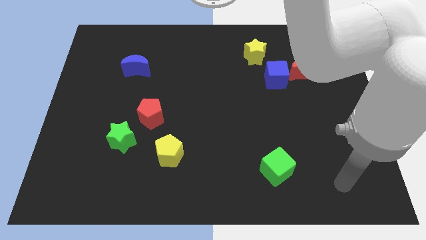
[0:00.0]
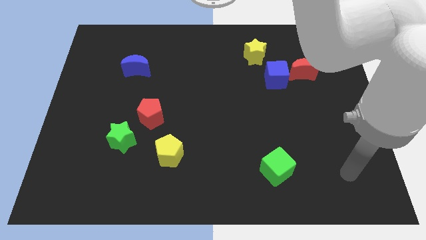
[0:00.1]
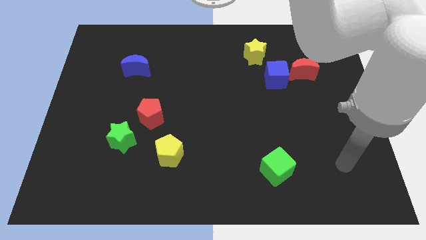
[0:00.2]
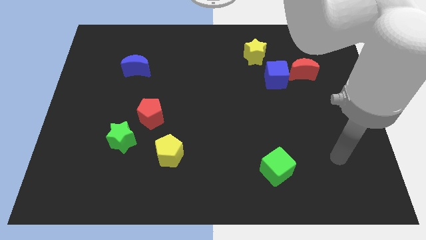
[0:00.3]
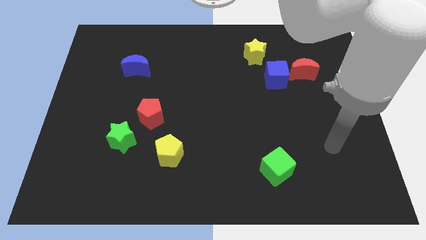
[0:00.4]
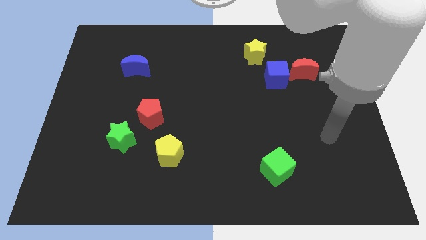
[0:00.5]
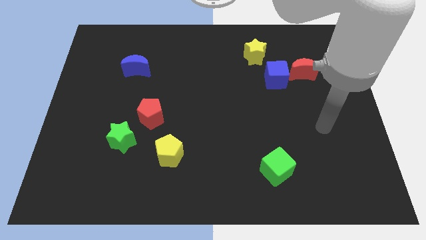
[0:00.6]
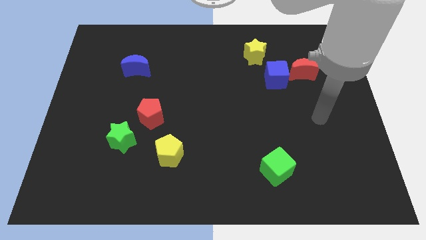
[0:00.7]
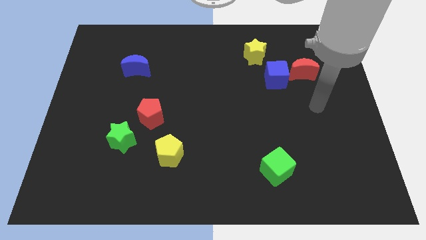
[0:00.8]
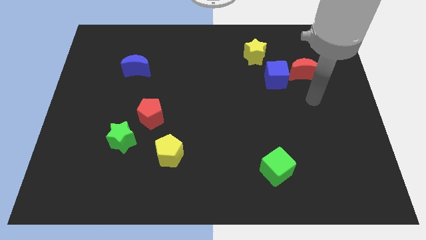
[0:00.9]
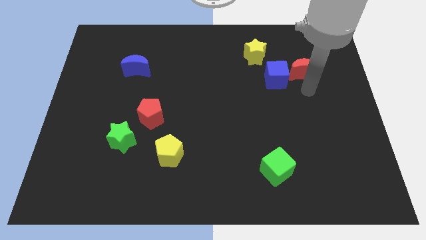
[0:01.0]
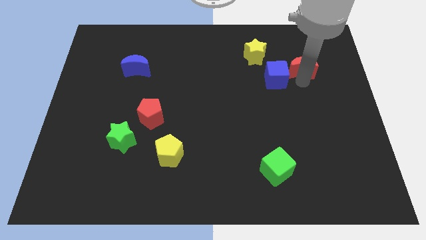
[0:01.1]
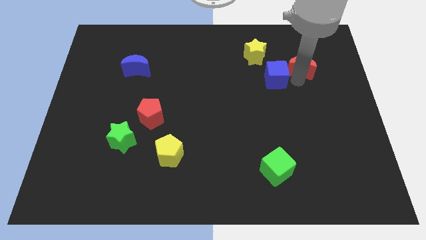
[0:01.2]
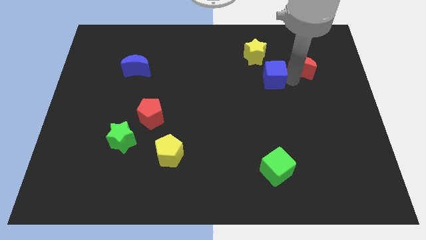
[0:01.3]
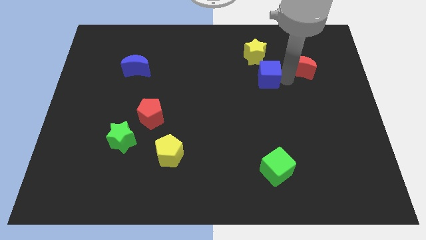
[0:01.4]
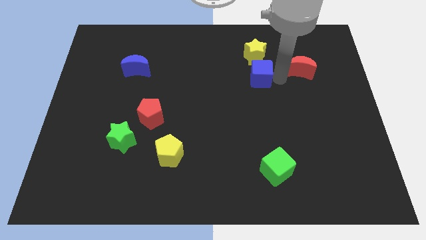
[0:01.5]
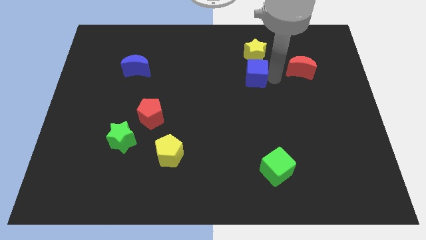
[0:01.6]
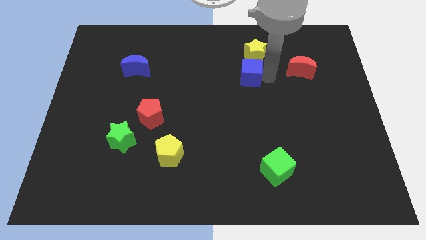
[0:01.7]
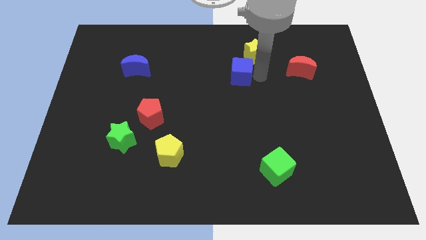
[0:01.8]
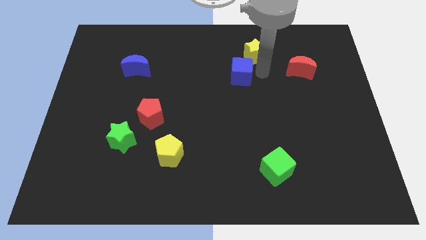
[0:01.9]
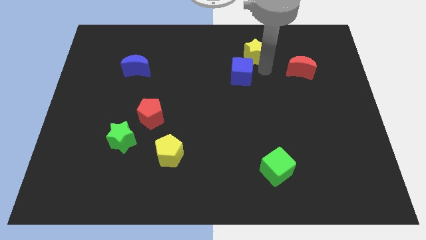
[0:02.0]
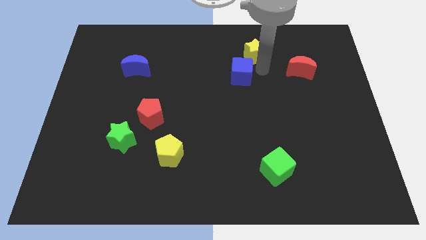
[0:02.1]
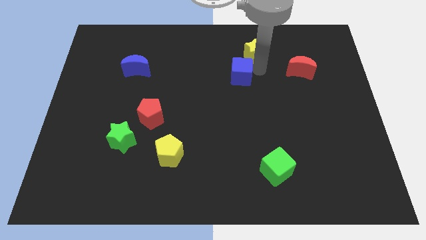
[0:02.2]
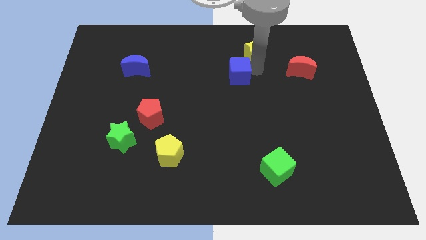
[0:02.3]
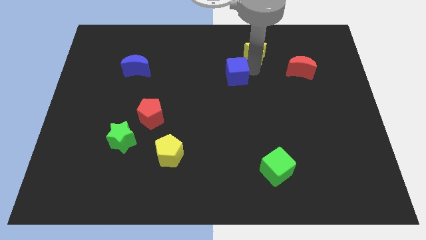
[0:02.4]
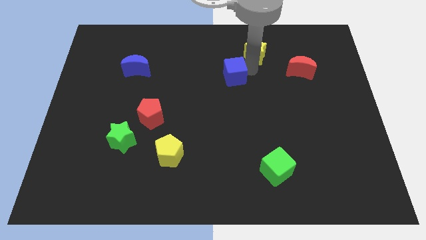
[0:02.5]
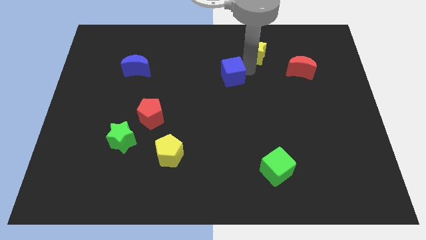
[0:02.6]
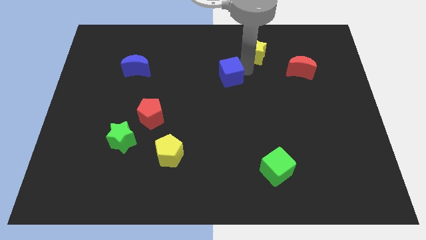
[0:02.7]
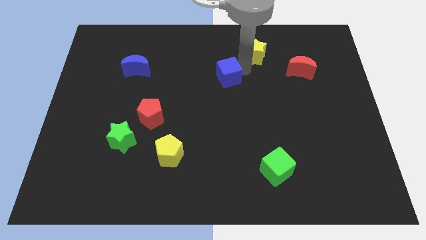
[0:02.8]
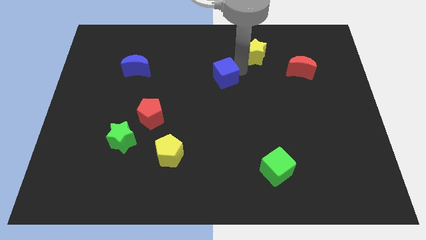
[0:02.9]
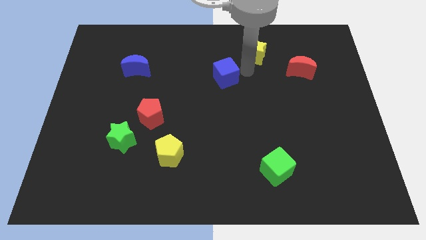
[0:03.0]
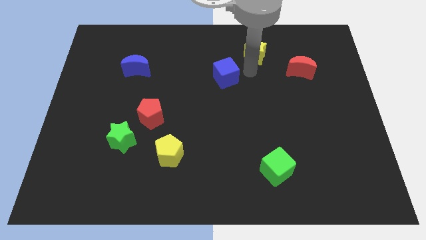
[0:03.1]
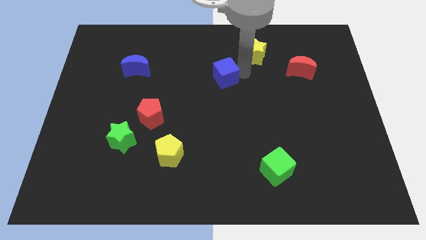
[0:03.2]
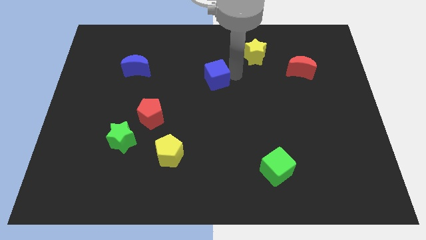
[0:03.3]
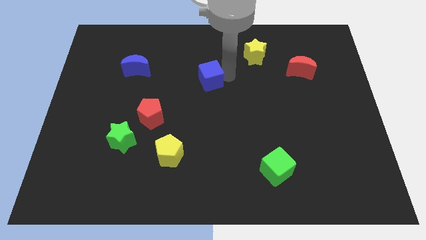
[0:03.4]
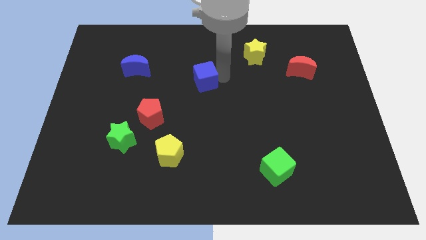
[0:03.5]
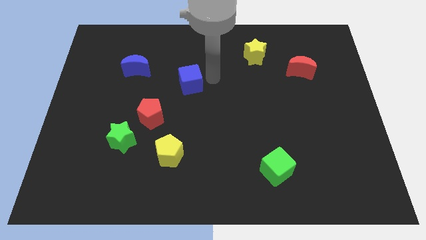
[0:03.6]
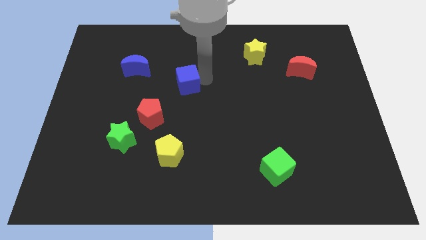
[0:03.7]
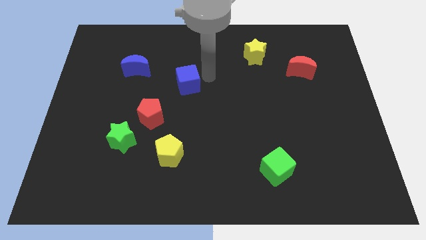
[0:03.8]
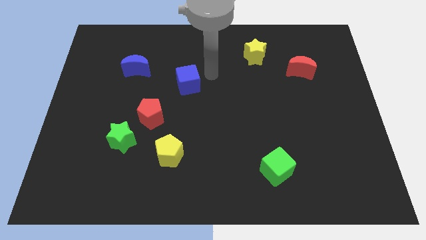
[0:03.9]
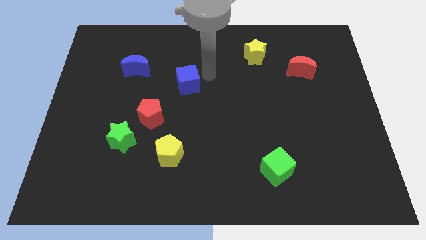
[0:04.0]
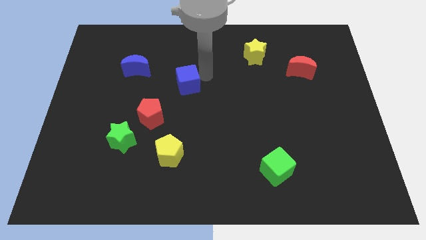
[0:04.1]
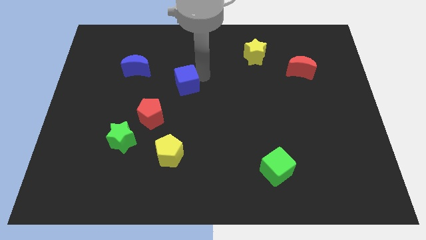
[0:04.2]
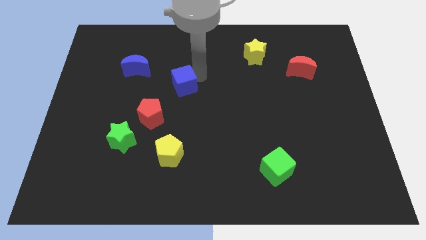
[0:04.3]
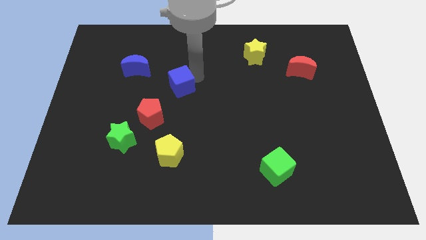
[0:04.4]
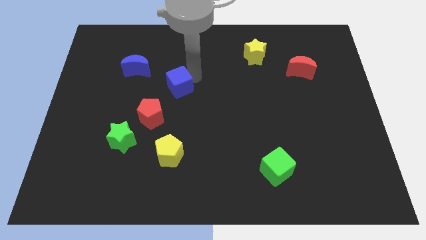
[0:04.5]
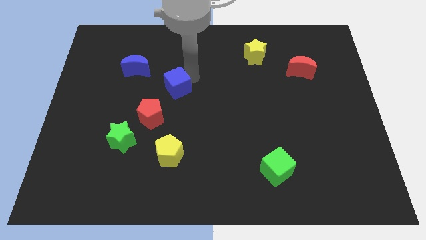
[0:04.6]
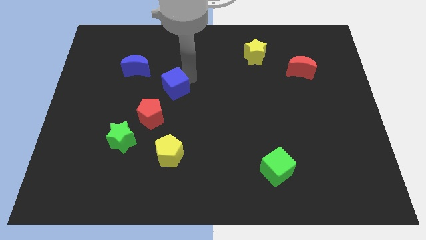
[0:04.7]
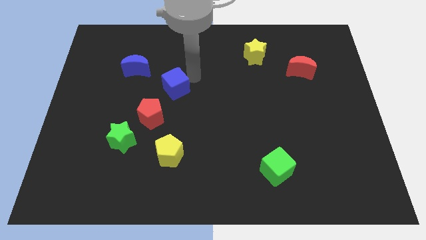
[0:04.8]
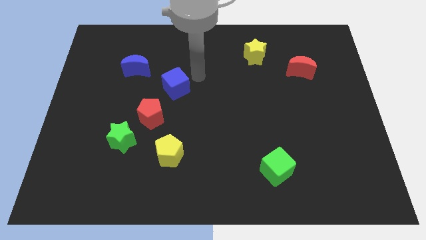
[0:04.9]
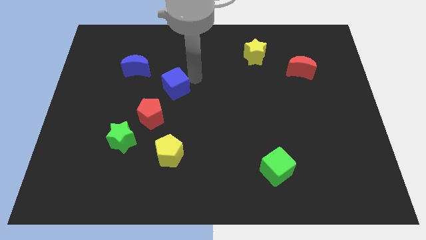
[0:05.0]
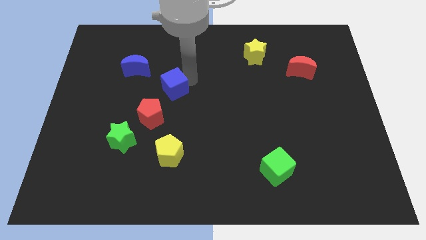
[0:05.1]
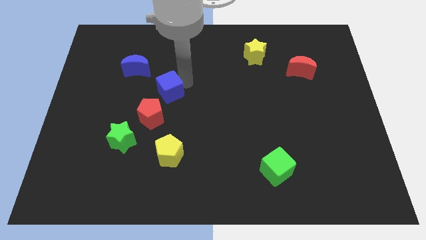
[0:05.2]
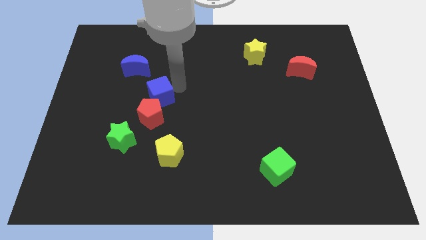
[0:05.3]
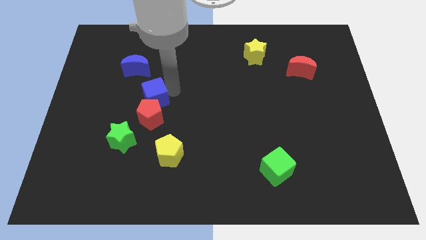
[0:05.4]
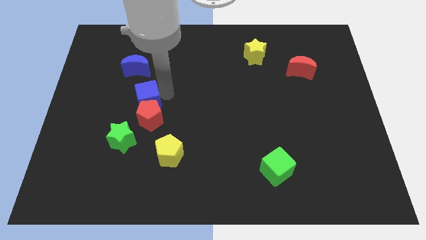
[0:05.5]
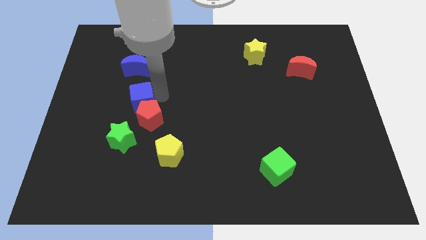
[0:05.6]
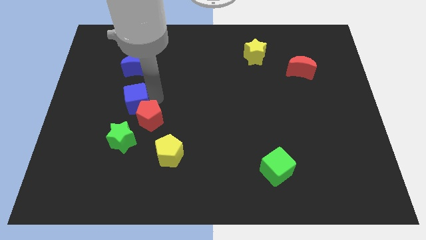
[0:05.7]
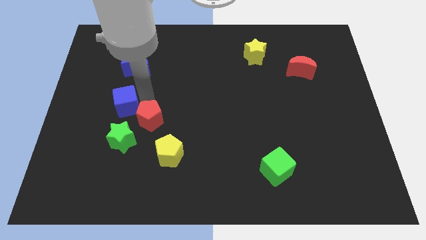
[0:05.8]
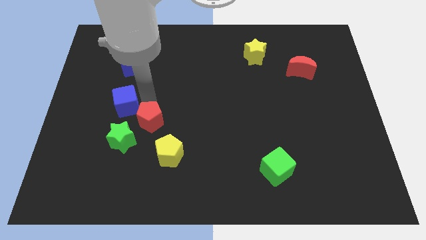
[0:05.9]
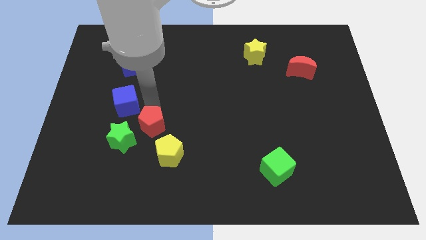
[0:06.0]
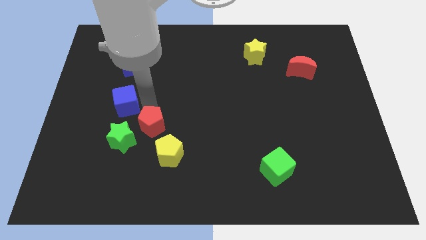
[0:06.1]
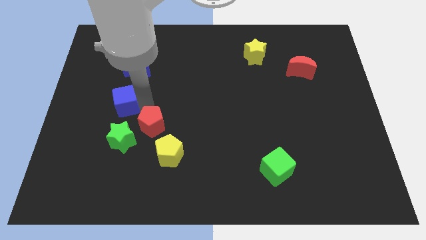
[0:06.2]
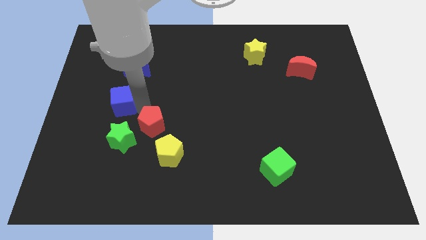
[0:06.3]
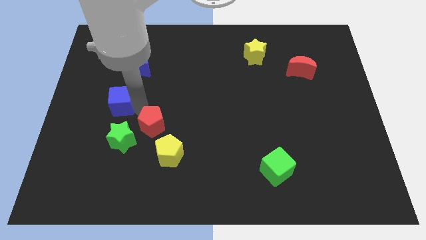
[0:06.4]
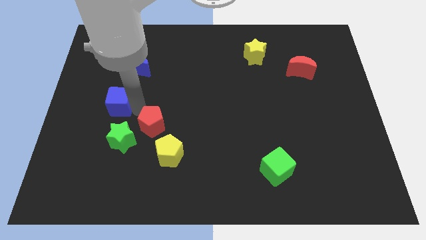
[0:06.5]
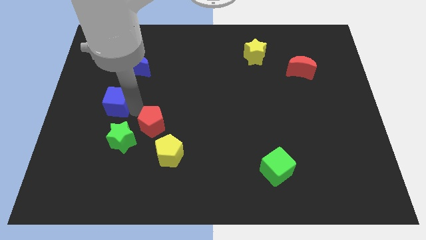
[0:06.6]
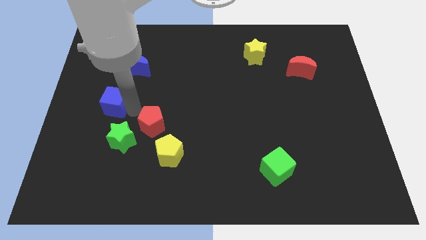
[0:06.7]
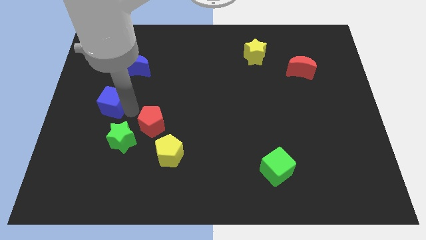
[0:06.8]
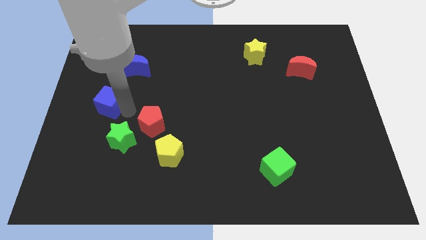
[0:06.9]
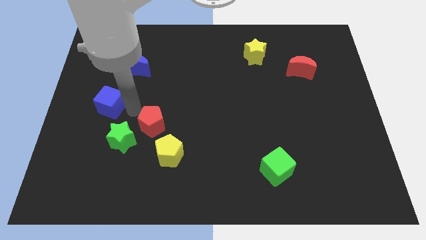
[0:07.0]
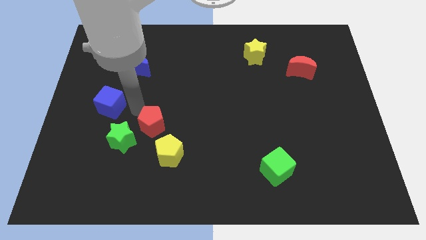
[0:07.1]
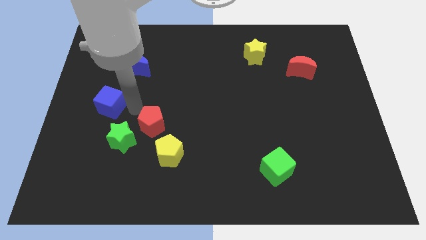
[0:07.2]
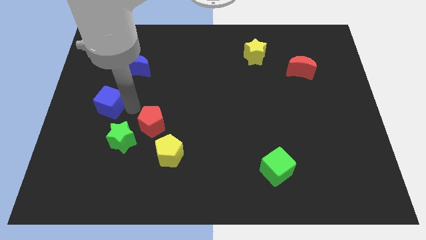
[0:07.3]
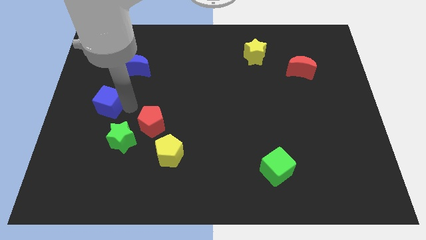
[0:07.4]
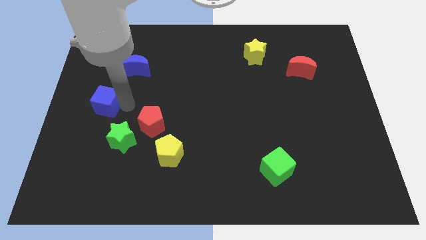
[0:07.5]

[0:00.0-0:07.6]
move the blue cube to the left side of the board
